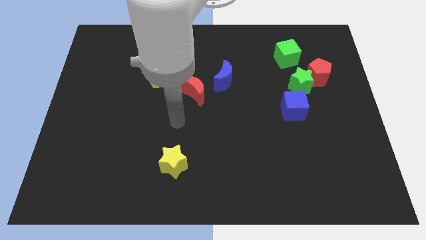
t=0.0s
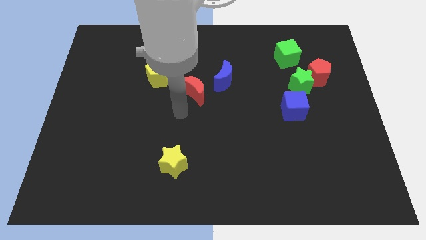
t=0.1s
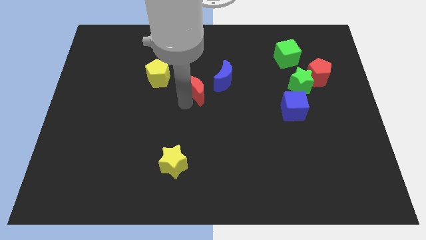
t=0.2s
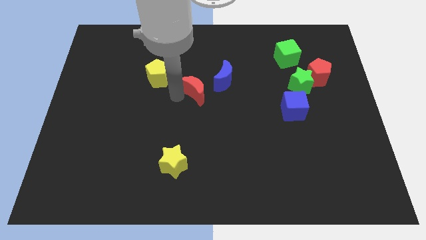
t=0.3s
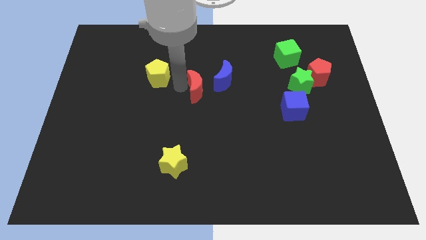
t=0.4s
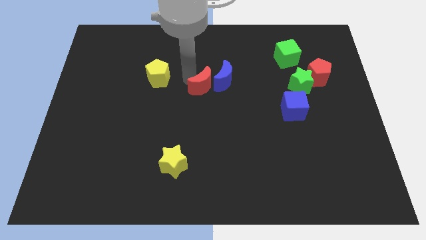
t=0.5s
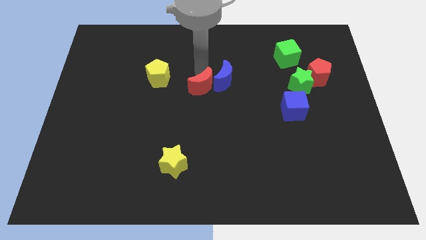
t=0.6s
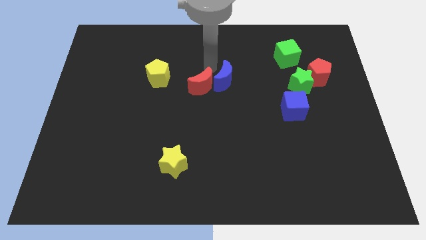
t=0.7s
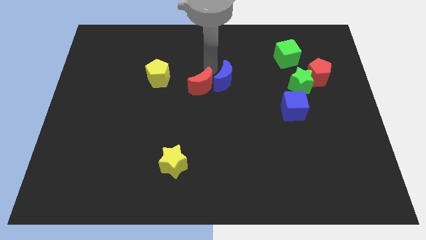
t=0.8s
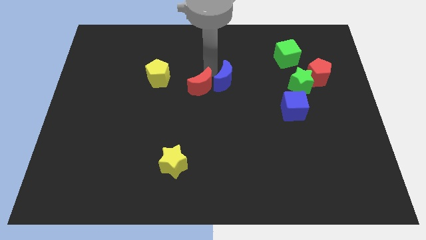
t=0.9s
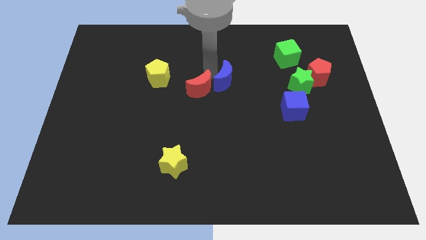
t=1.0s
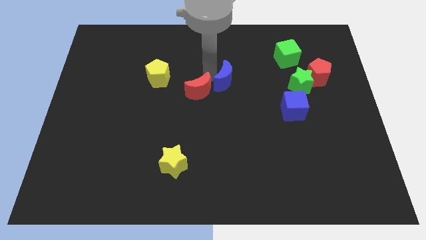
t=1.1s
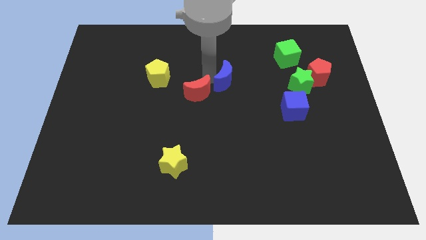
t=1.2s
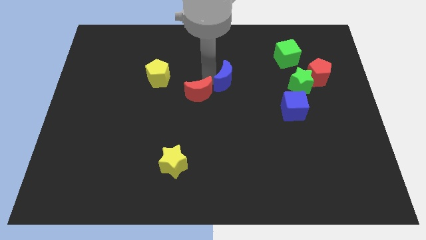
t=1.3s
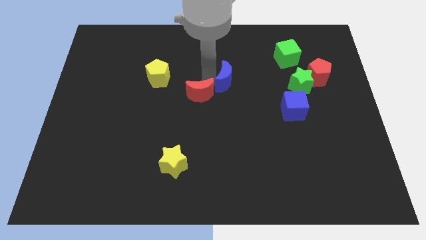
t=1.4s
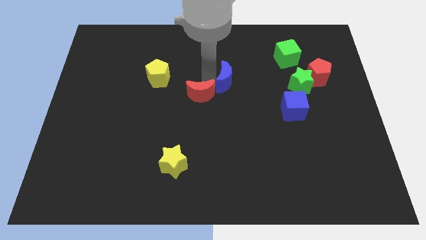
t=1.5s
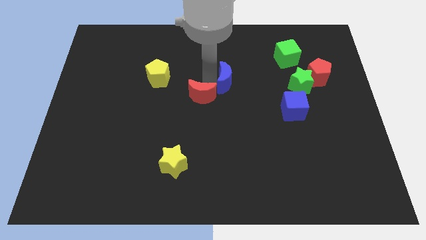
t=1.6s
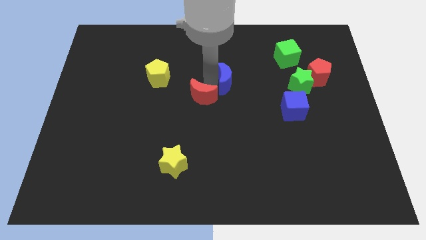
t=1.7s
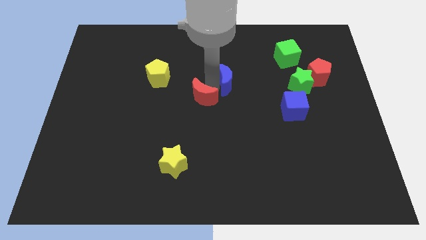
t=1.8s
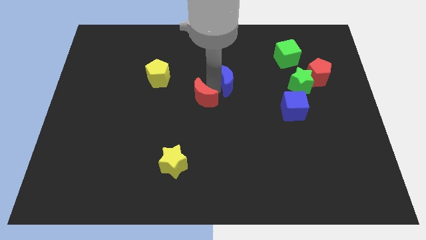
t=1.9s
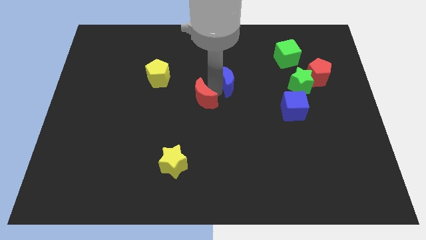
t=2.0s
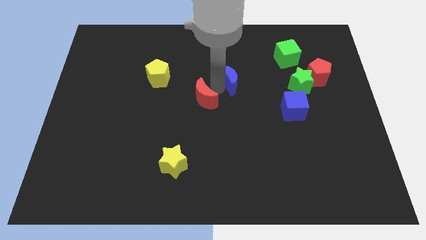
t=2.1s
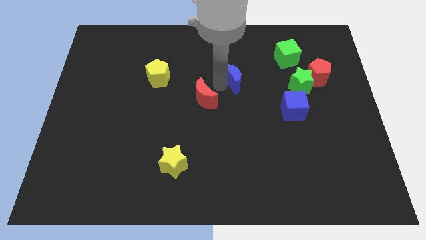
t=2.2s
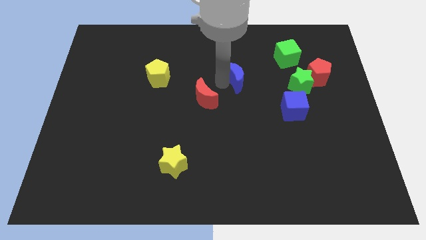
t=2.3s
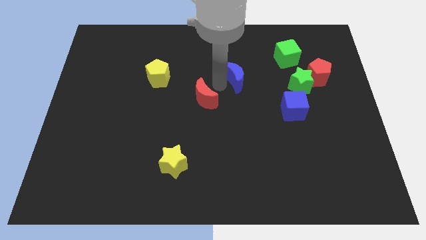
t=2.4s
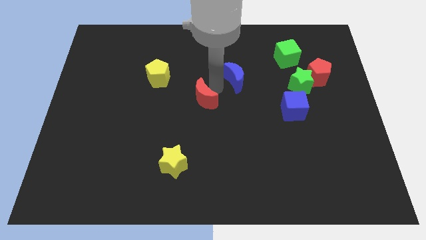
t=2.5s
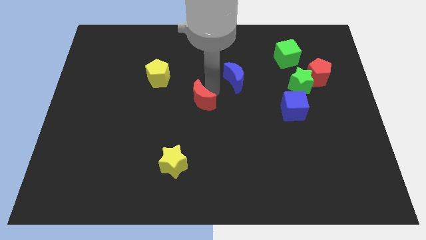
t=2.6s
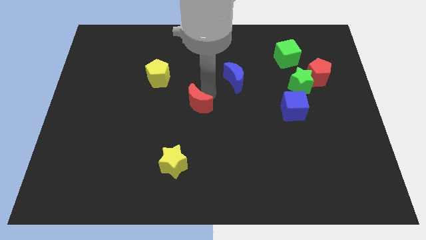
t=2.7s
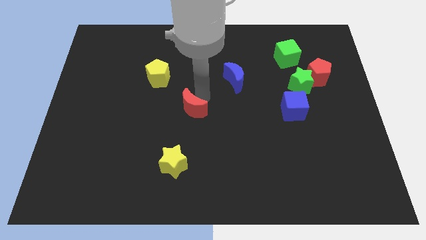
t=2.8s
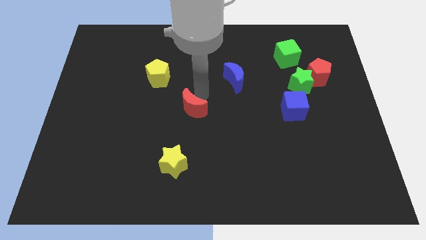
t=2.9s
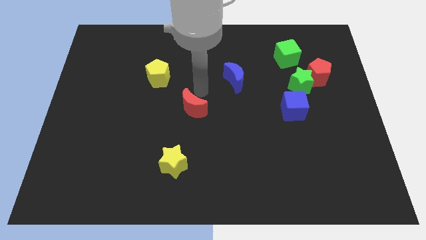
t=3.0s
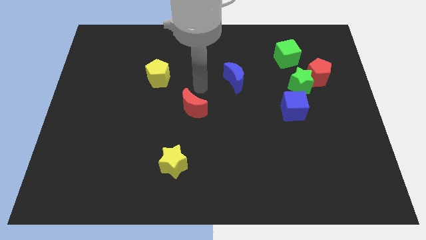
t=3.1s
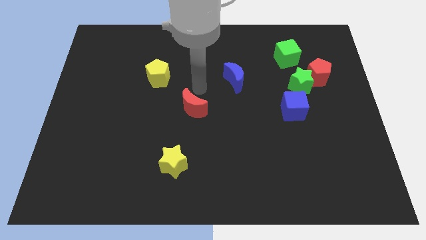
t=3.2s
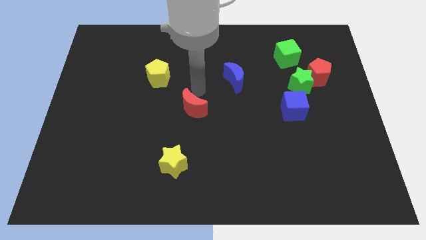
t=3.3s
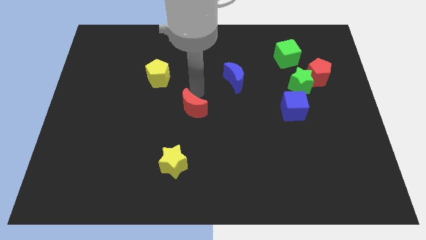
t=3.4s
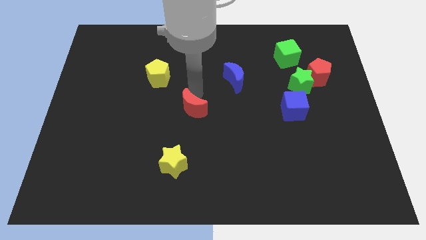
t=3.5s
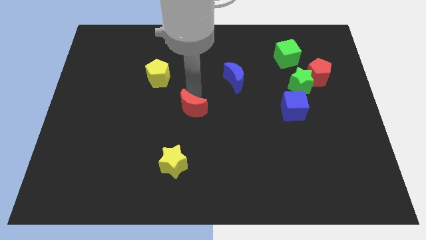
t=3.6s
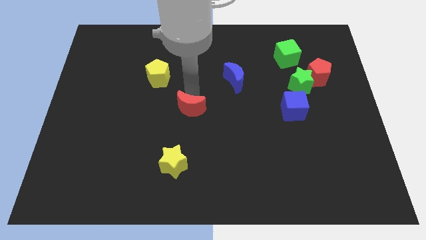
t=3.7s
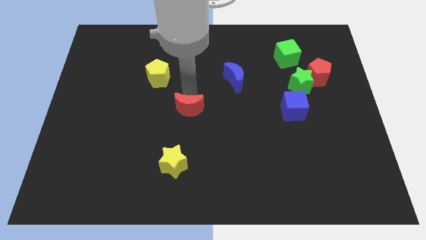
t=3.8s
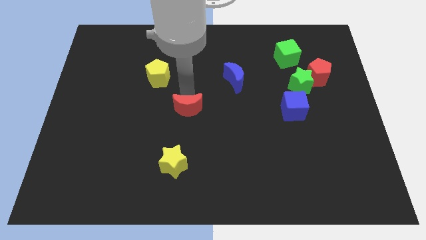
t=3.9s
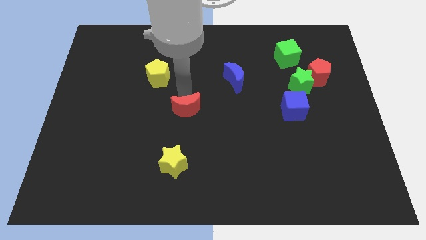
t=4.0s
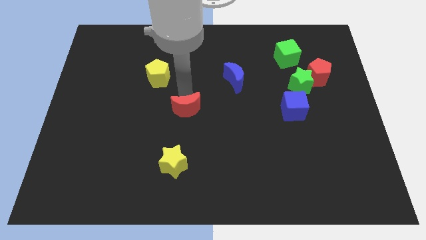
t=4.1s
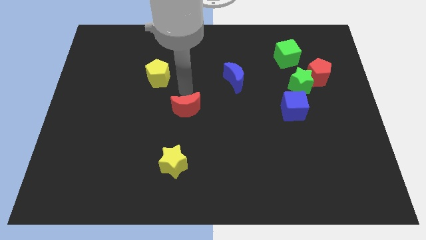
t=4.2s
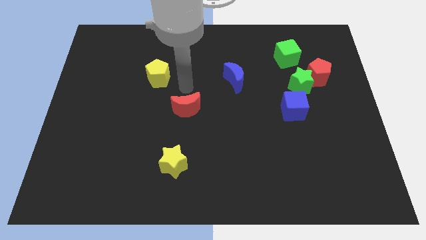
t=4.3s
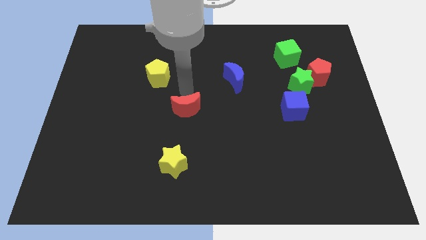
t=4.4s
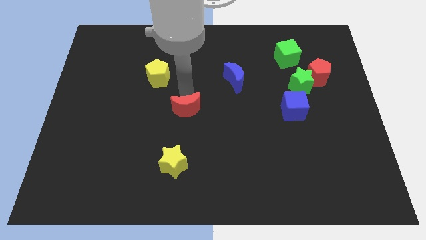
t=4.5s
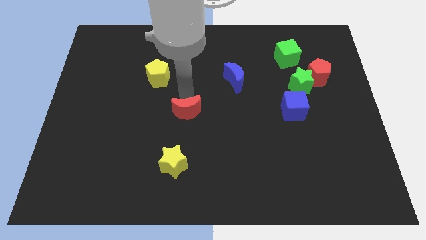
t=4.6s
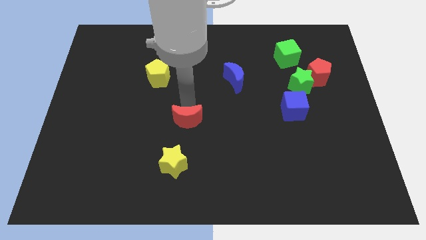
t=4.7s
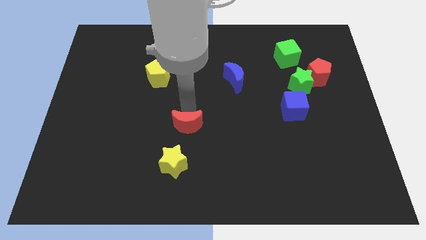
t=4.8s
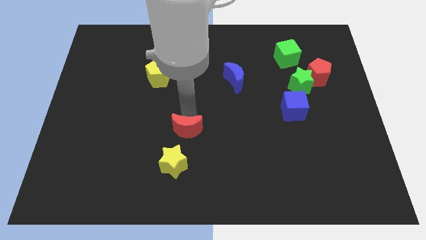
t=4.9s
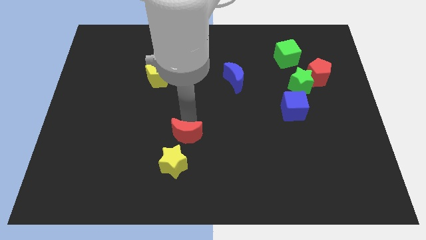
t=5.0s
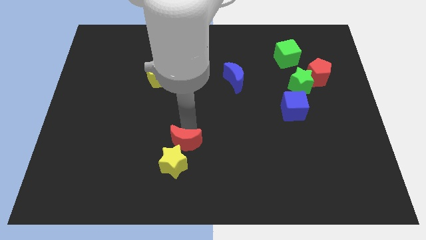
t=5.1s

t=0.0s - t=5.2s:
move the red moon towards the yellow star

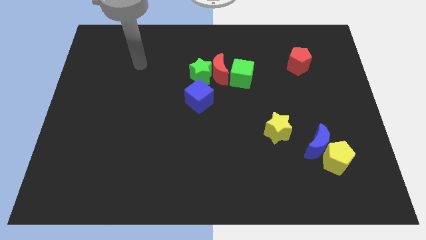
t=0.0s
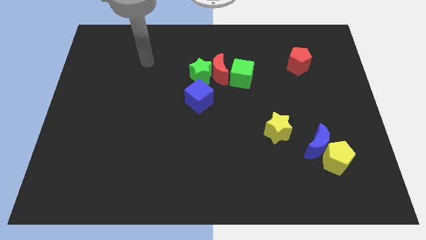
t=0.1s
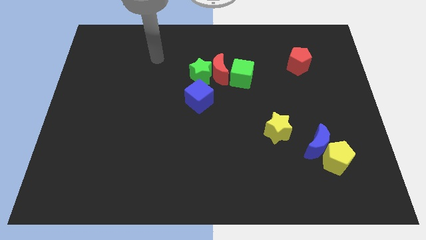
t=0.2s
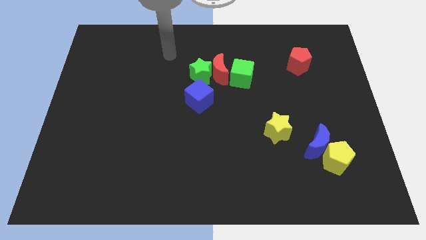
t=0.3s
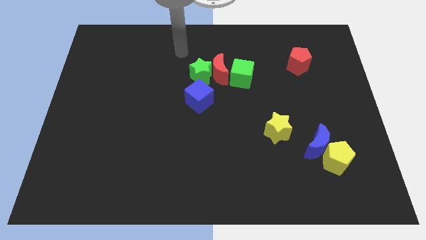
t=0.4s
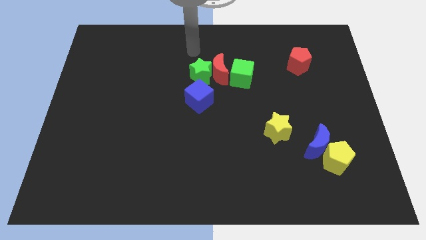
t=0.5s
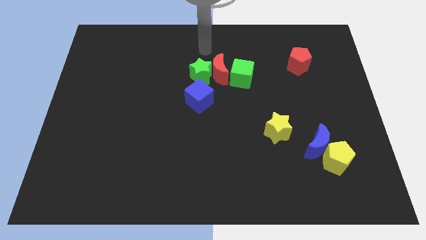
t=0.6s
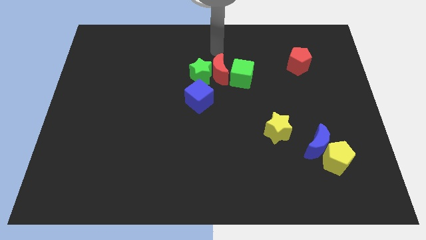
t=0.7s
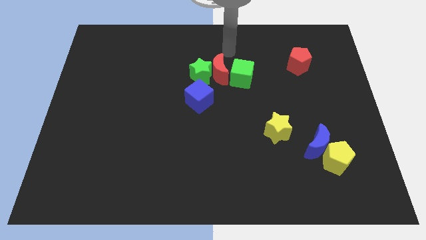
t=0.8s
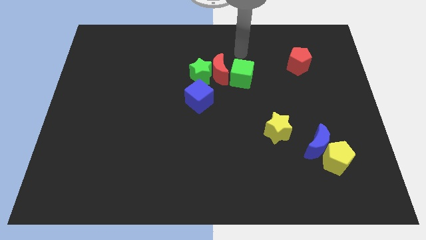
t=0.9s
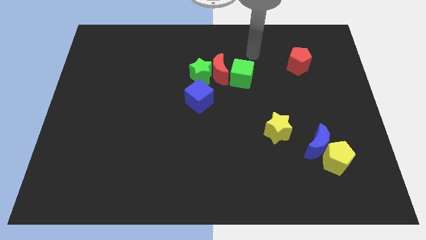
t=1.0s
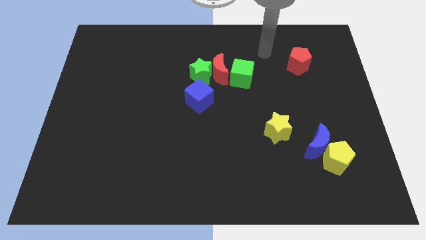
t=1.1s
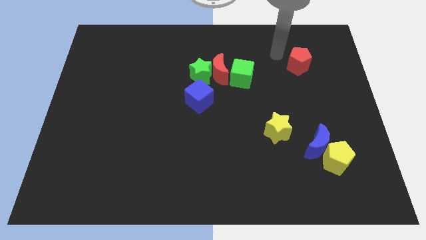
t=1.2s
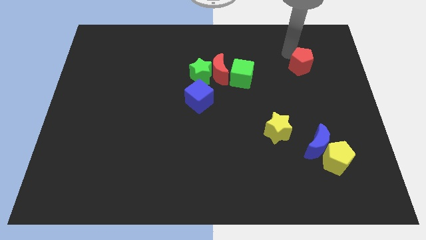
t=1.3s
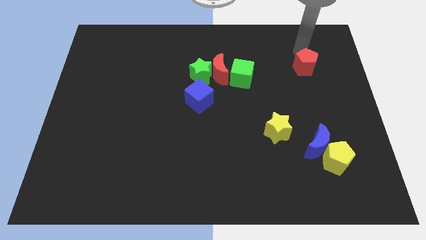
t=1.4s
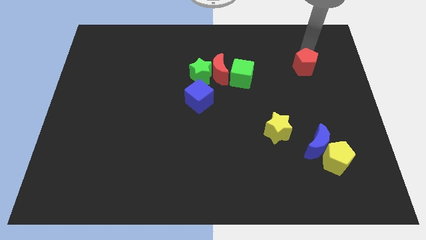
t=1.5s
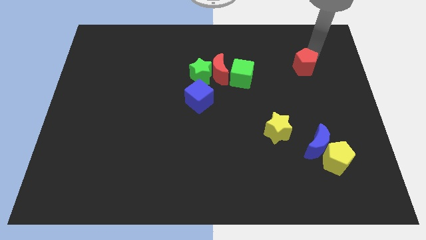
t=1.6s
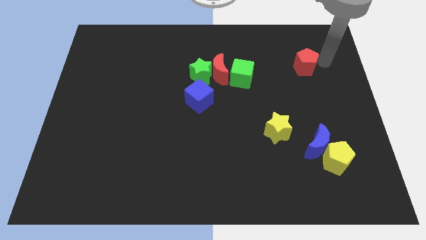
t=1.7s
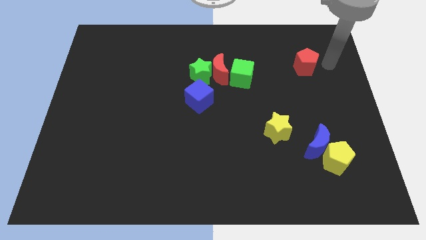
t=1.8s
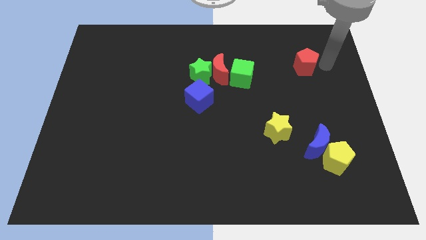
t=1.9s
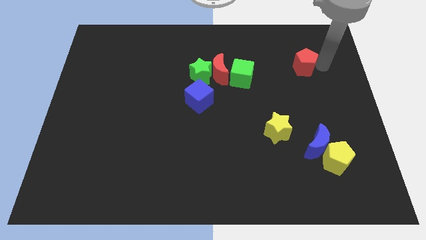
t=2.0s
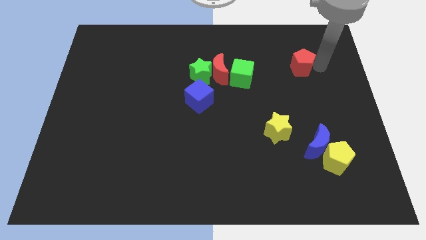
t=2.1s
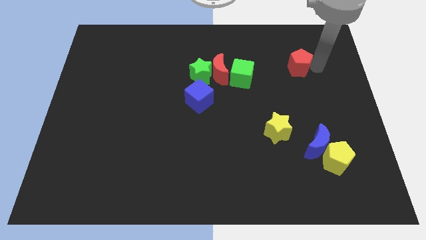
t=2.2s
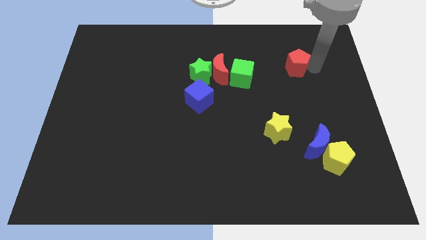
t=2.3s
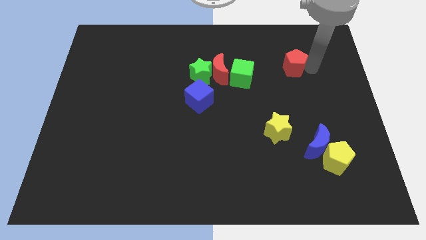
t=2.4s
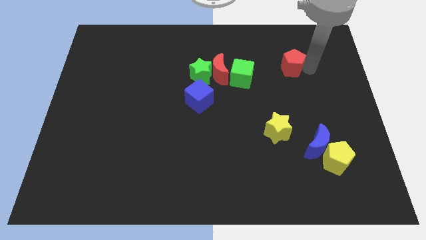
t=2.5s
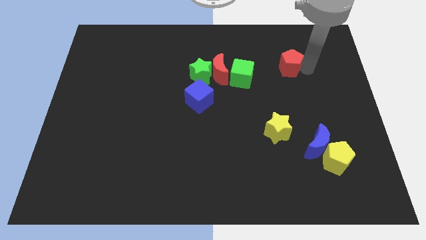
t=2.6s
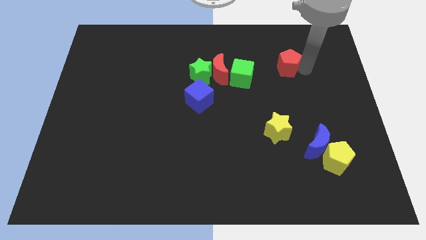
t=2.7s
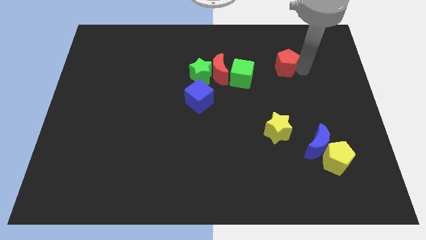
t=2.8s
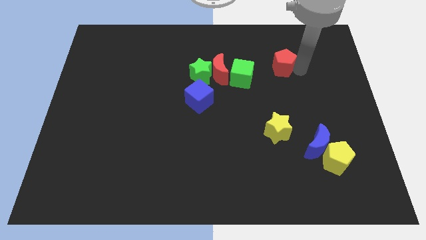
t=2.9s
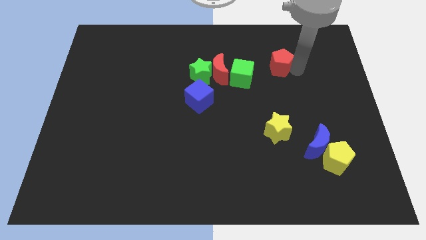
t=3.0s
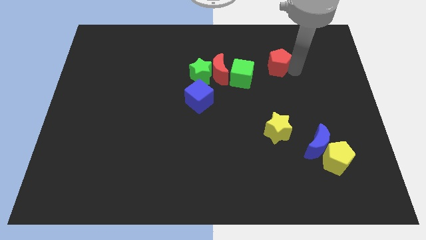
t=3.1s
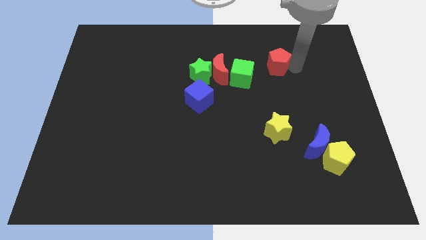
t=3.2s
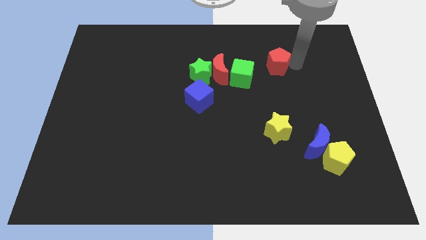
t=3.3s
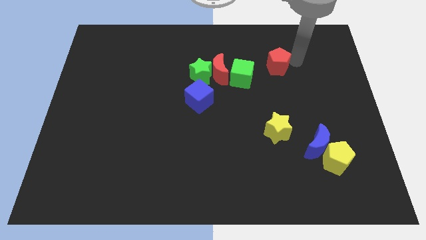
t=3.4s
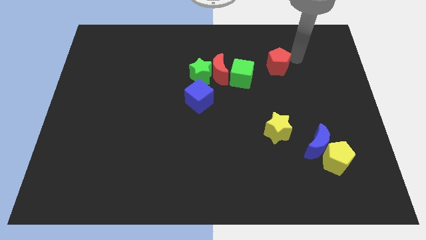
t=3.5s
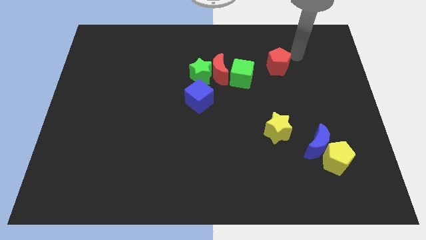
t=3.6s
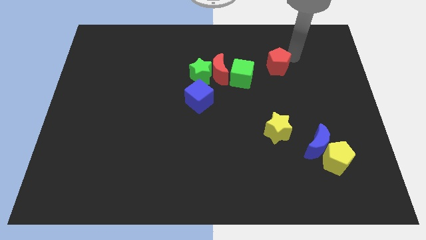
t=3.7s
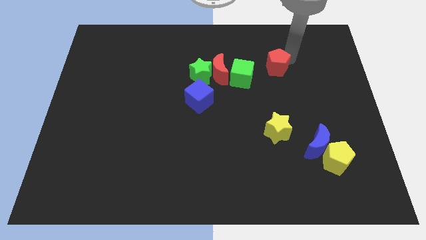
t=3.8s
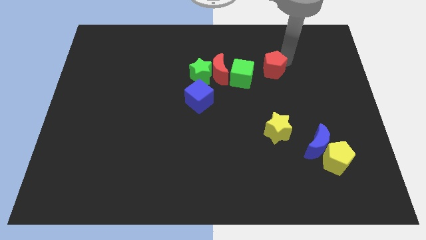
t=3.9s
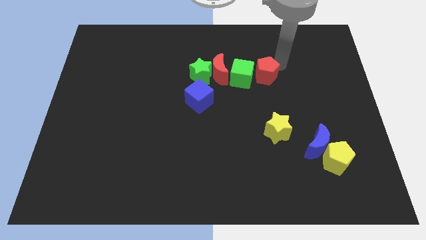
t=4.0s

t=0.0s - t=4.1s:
move the red pentagon to the green cube
